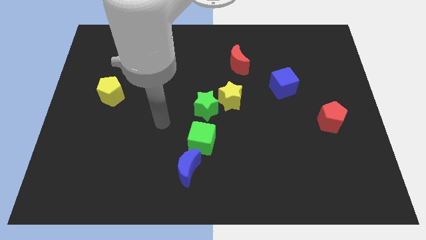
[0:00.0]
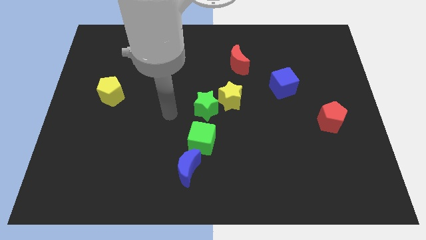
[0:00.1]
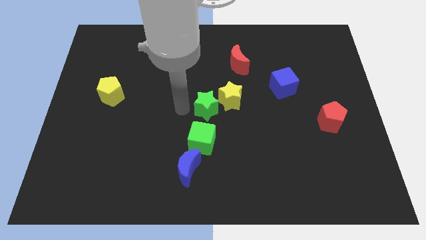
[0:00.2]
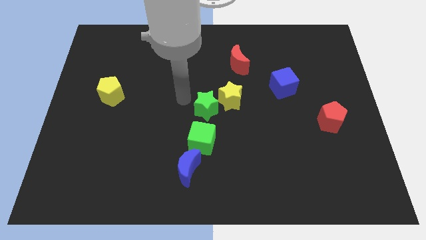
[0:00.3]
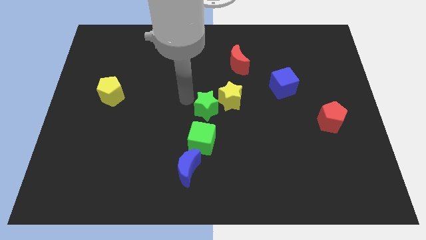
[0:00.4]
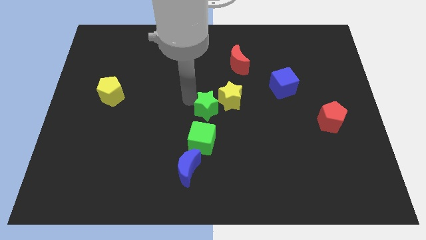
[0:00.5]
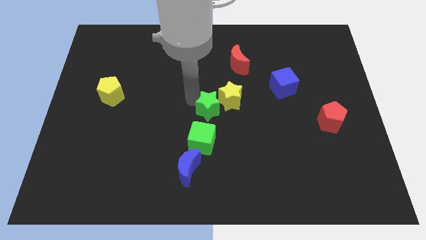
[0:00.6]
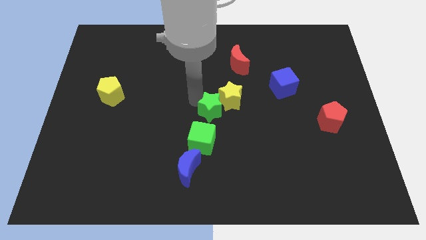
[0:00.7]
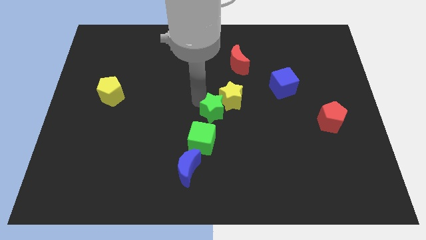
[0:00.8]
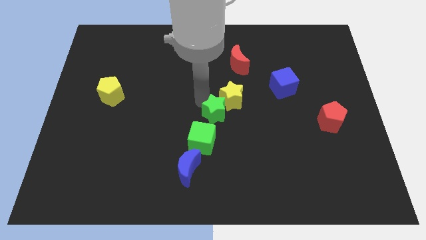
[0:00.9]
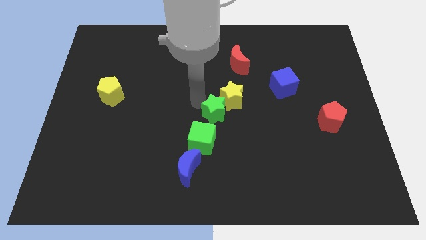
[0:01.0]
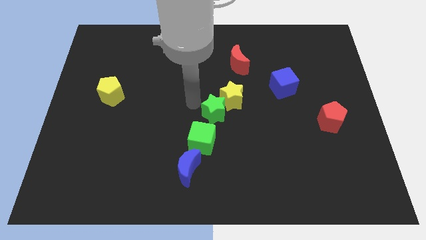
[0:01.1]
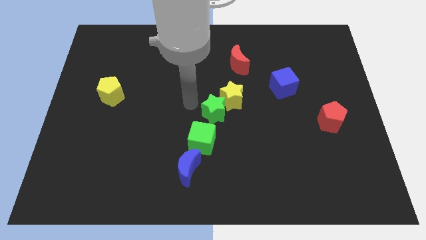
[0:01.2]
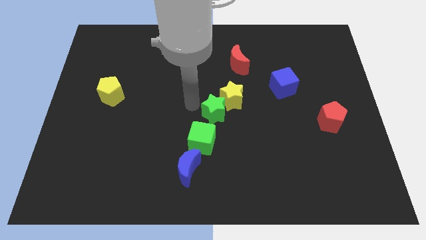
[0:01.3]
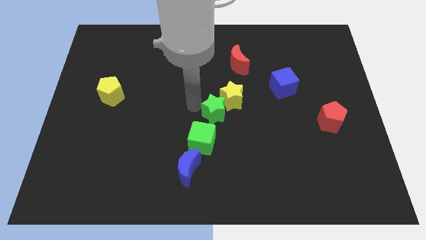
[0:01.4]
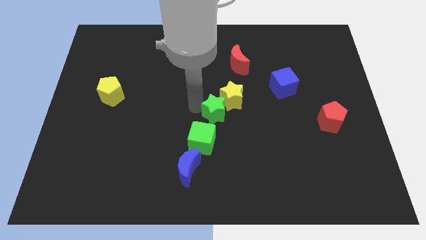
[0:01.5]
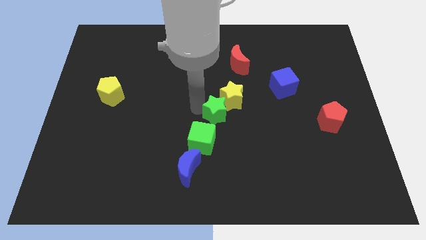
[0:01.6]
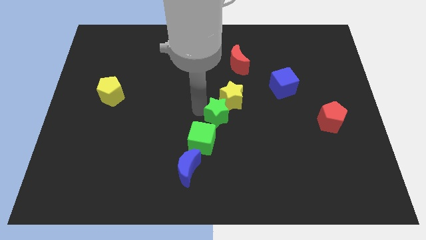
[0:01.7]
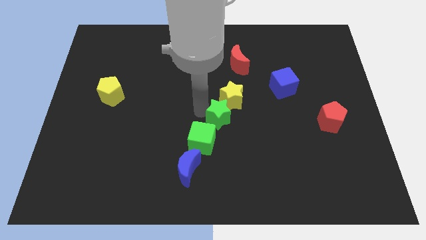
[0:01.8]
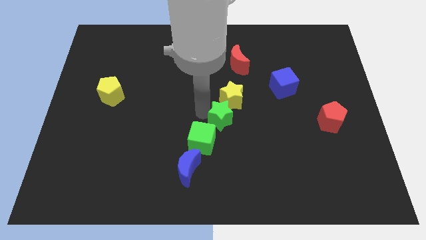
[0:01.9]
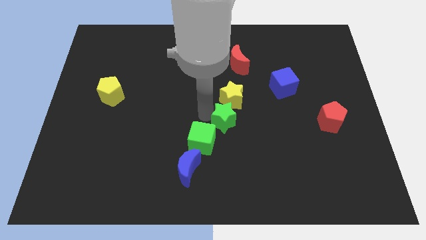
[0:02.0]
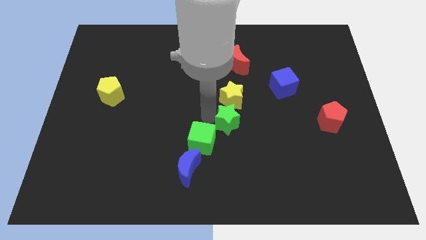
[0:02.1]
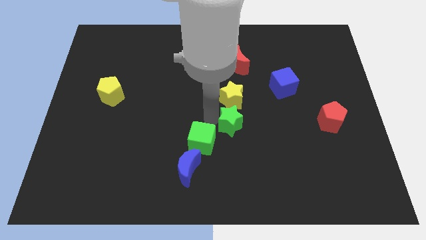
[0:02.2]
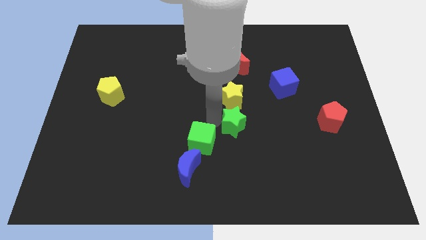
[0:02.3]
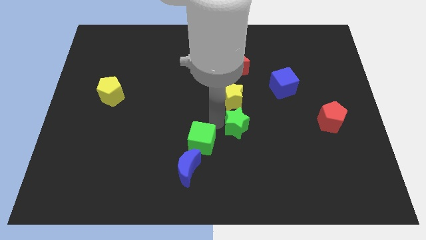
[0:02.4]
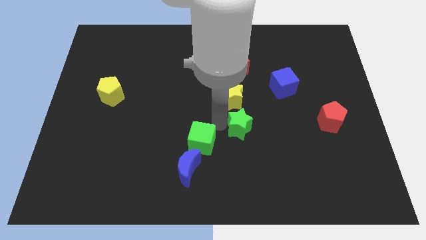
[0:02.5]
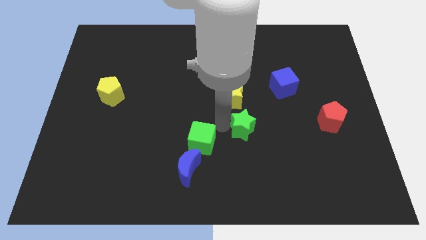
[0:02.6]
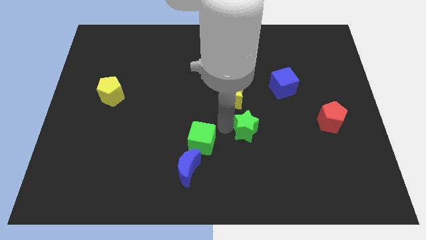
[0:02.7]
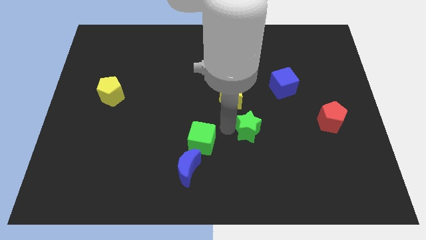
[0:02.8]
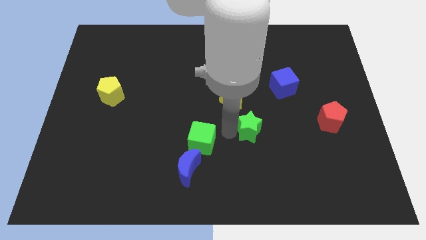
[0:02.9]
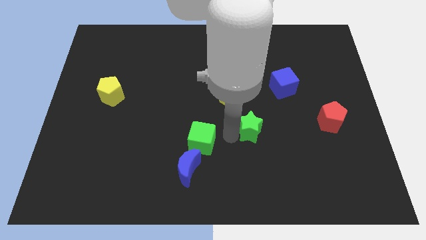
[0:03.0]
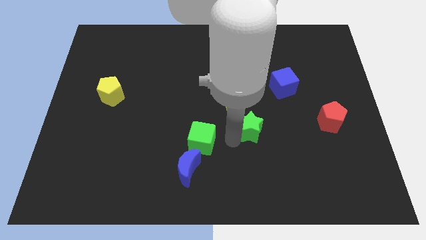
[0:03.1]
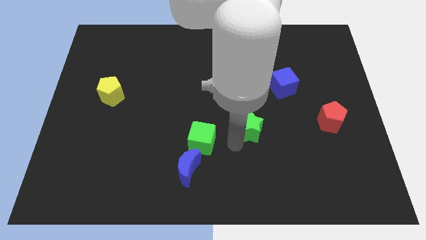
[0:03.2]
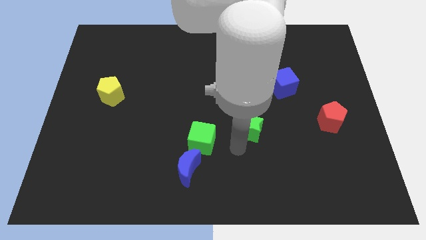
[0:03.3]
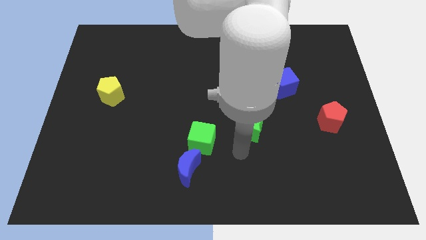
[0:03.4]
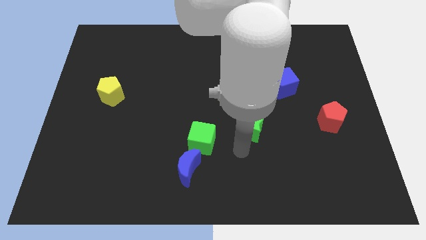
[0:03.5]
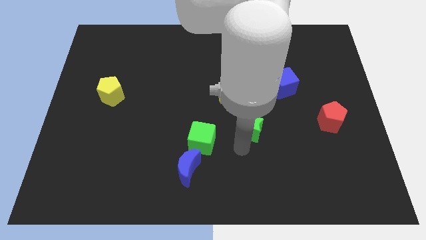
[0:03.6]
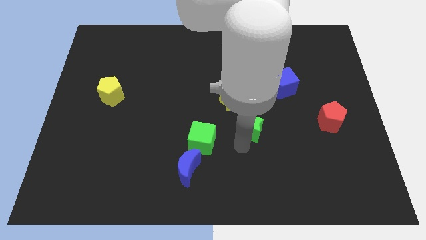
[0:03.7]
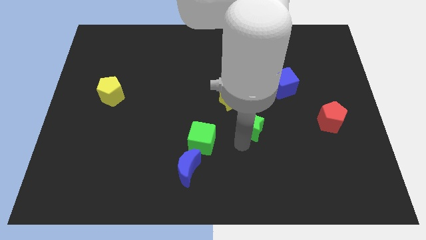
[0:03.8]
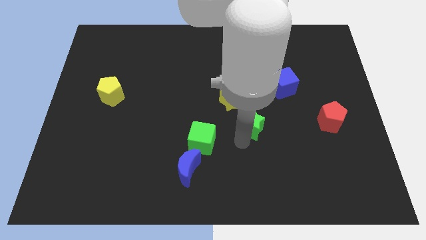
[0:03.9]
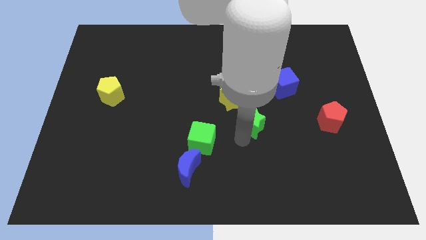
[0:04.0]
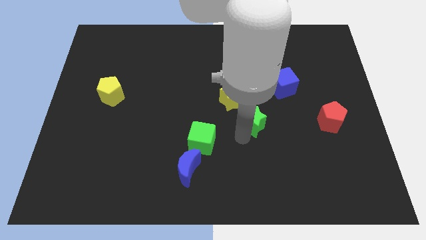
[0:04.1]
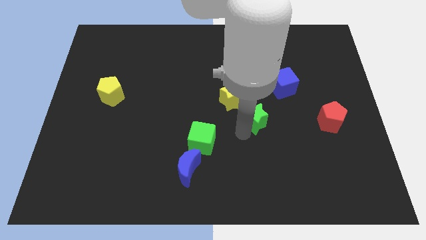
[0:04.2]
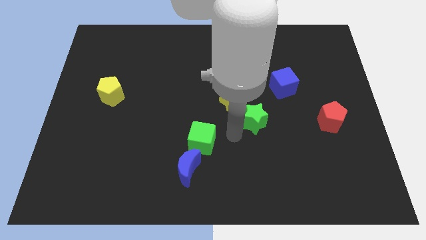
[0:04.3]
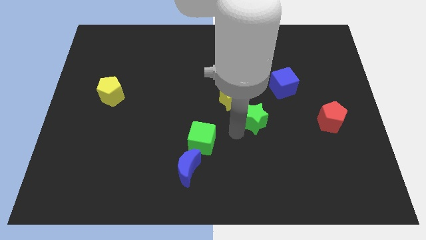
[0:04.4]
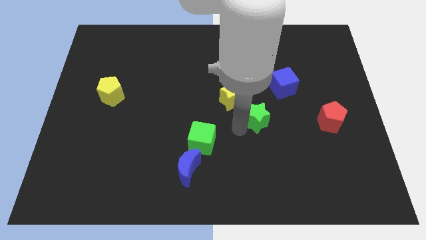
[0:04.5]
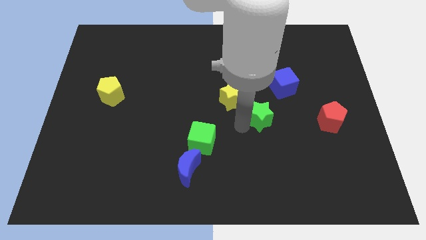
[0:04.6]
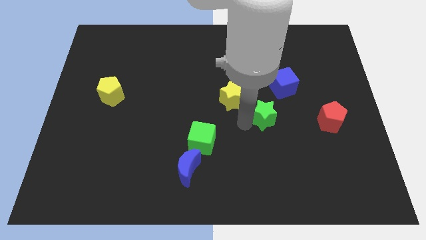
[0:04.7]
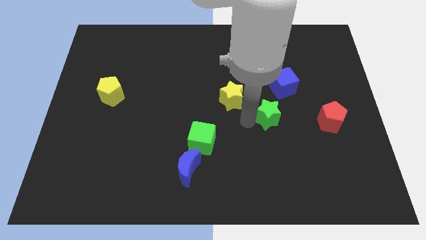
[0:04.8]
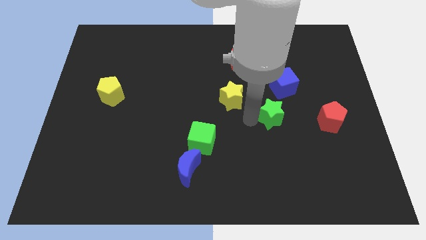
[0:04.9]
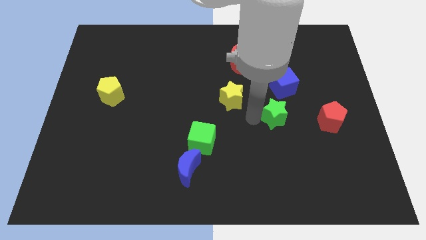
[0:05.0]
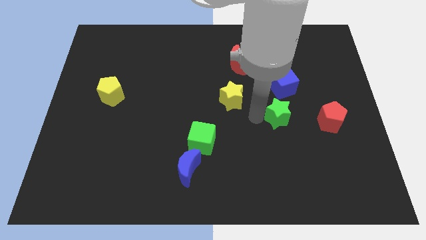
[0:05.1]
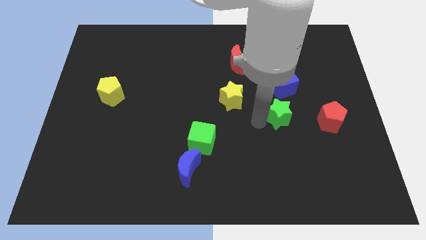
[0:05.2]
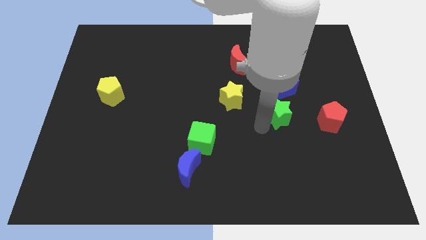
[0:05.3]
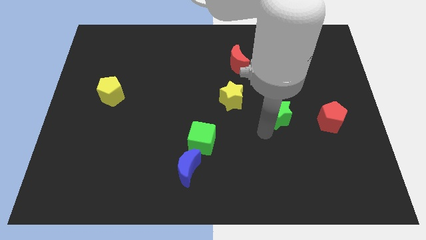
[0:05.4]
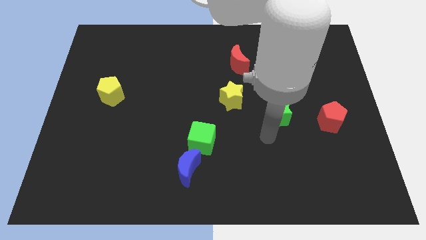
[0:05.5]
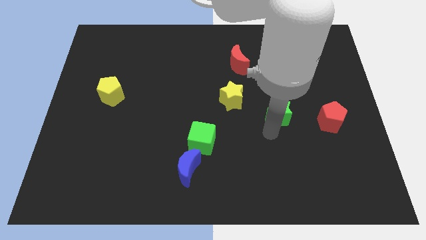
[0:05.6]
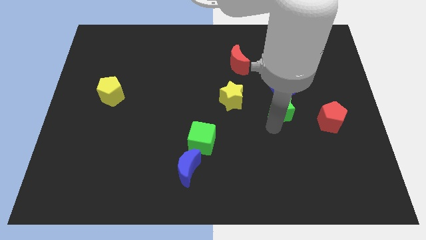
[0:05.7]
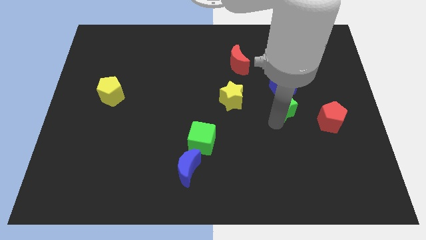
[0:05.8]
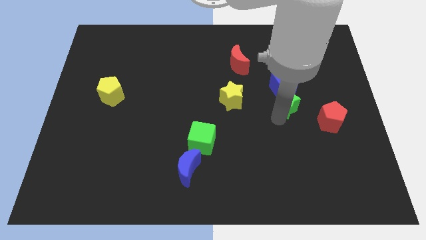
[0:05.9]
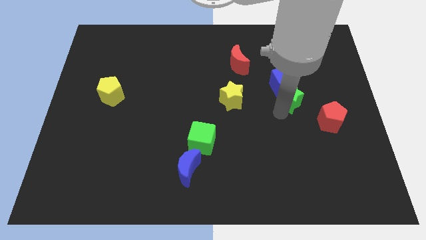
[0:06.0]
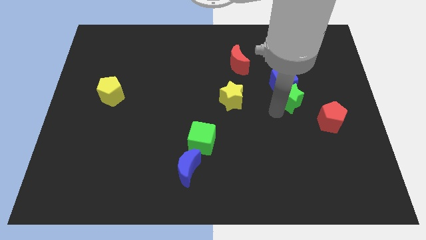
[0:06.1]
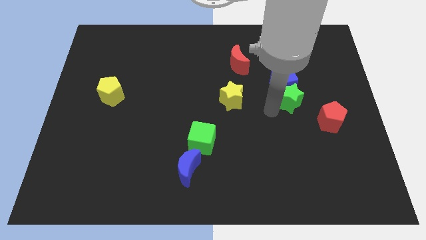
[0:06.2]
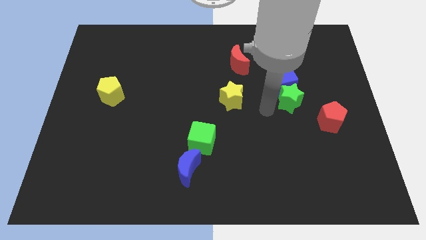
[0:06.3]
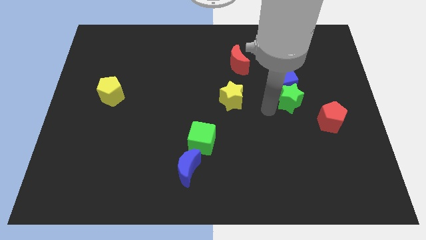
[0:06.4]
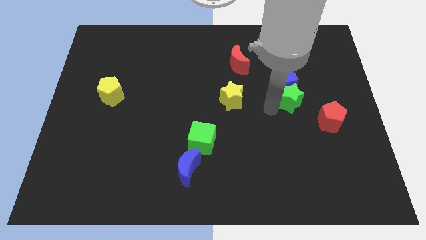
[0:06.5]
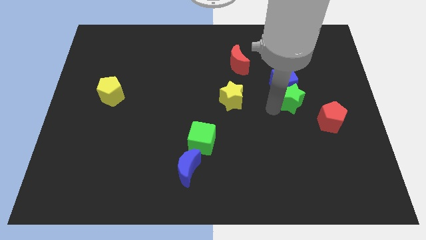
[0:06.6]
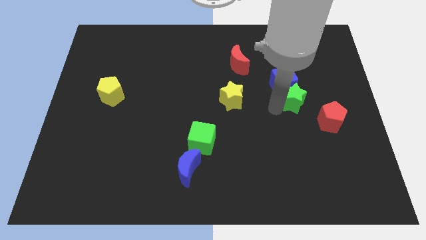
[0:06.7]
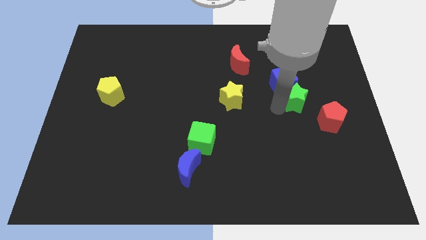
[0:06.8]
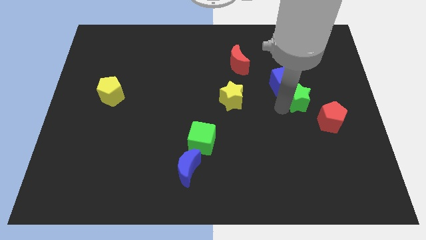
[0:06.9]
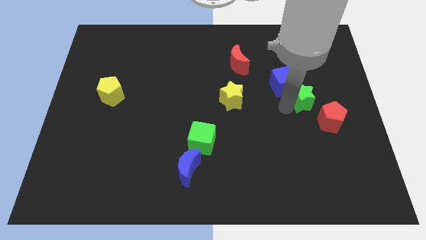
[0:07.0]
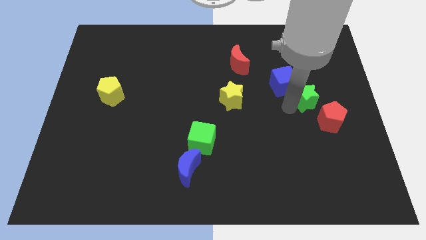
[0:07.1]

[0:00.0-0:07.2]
move the green star to the top of the red pentagon
